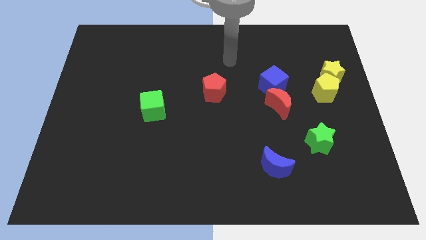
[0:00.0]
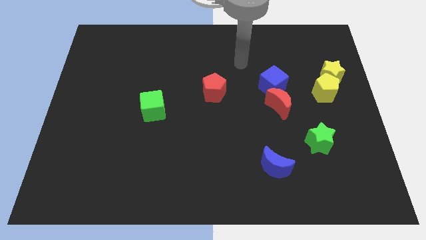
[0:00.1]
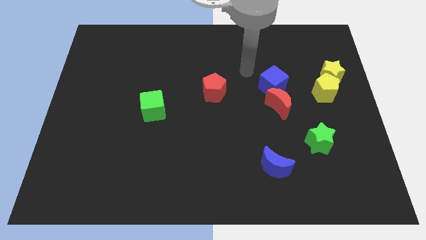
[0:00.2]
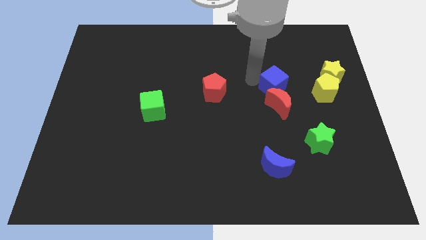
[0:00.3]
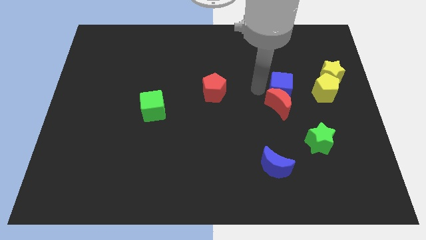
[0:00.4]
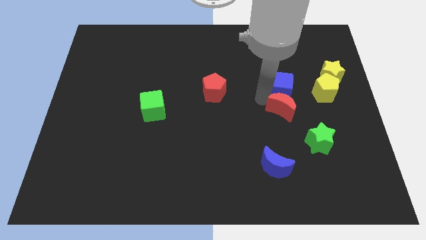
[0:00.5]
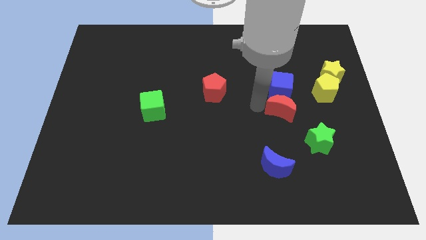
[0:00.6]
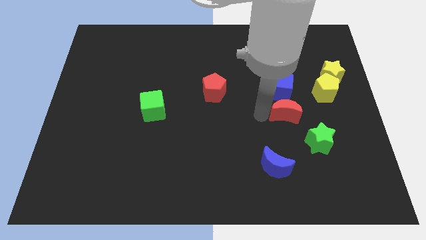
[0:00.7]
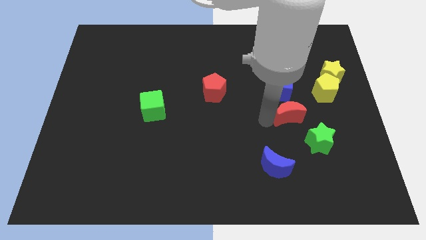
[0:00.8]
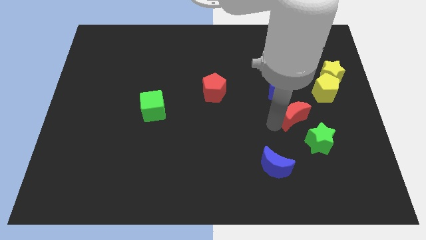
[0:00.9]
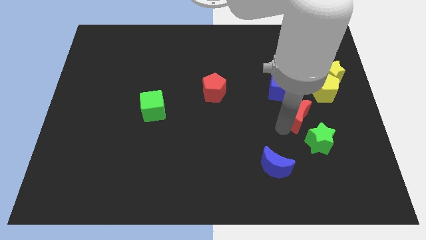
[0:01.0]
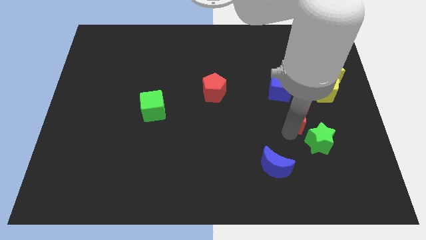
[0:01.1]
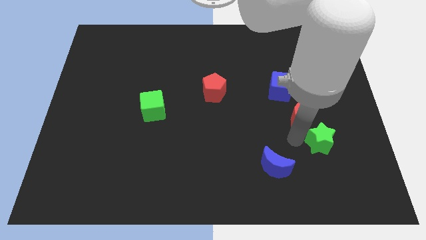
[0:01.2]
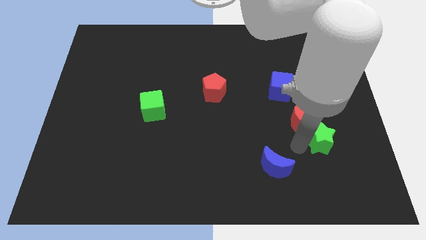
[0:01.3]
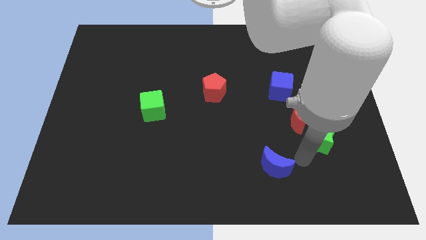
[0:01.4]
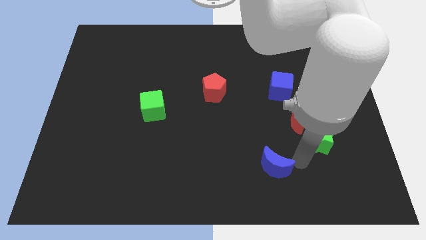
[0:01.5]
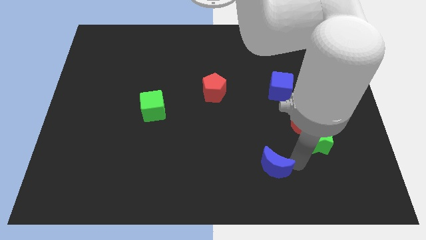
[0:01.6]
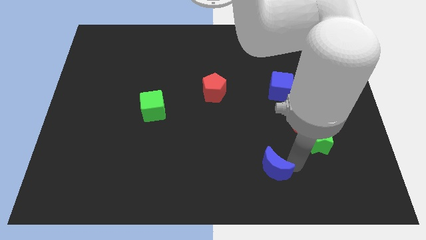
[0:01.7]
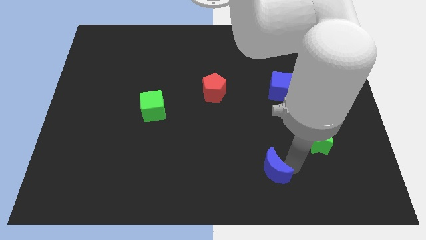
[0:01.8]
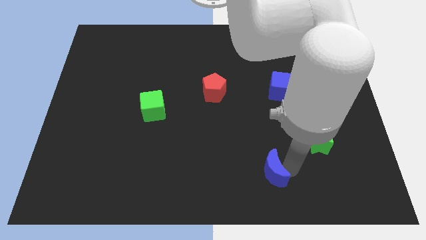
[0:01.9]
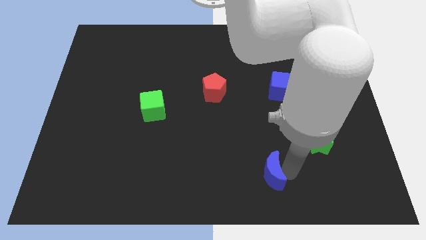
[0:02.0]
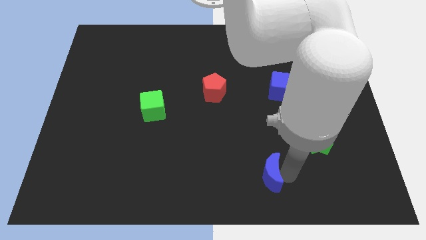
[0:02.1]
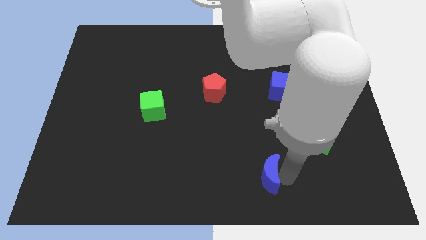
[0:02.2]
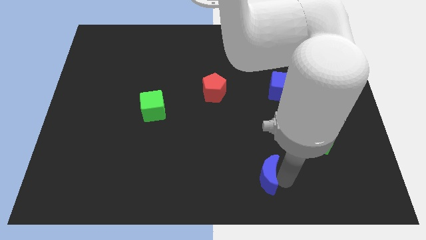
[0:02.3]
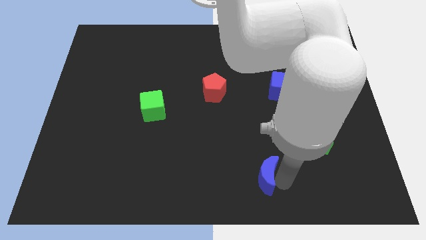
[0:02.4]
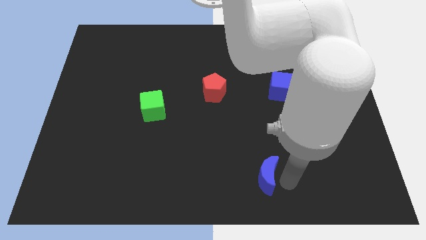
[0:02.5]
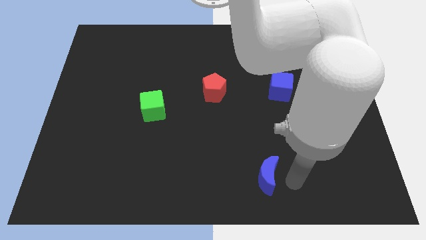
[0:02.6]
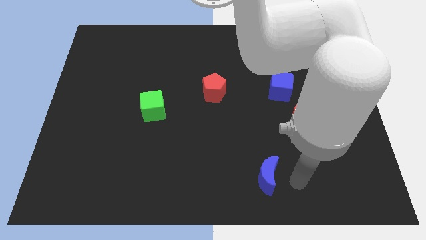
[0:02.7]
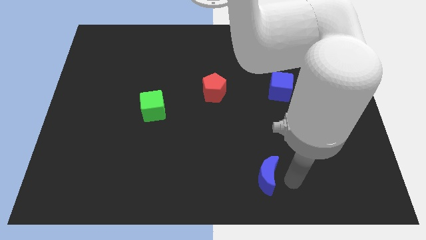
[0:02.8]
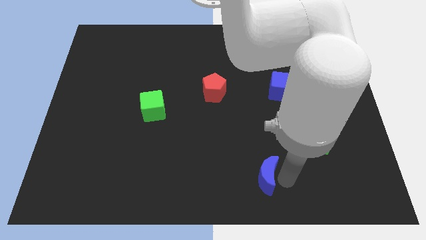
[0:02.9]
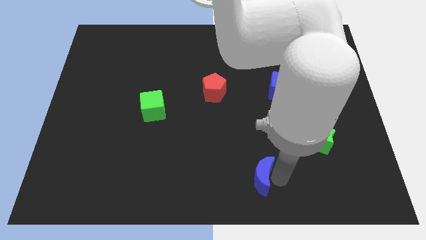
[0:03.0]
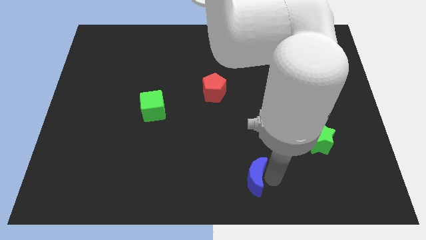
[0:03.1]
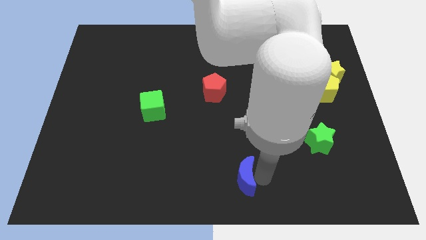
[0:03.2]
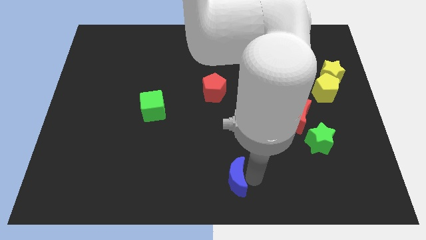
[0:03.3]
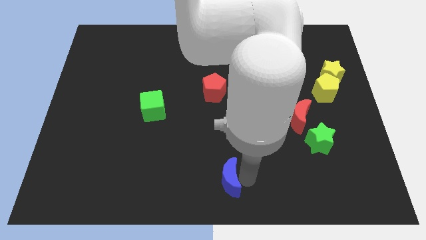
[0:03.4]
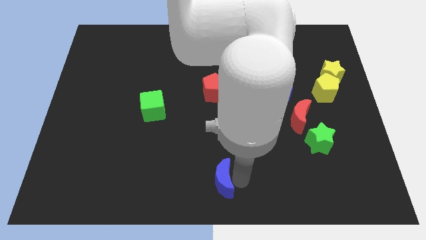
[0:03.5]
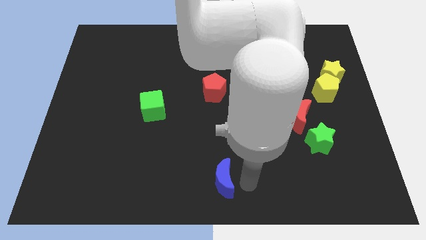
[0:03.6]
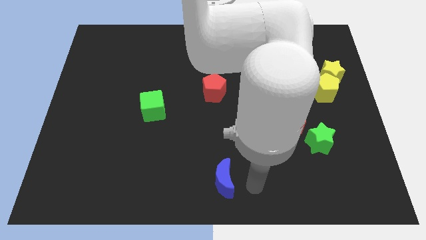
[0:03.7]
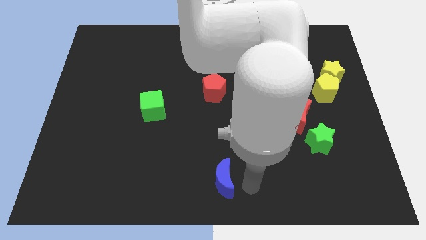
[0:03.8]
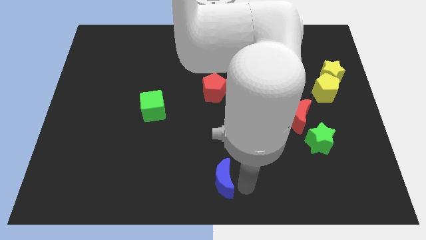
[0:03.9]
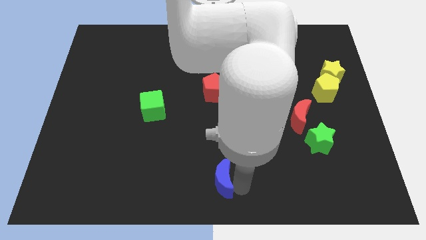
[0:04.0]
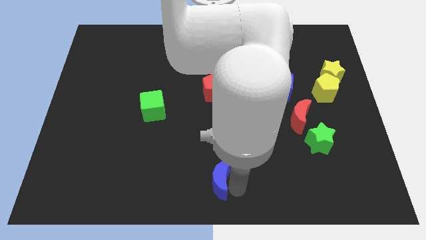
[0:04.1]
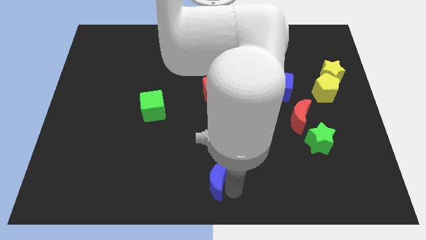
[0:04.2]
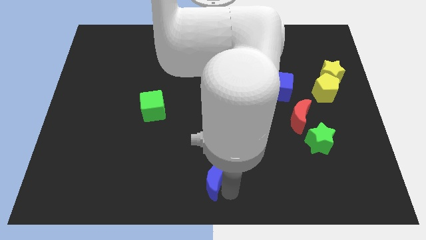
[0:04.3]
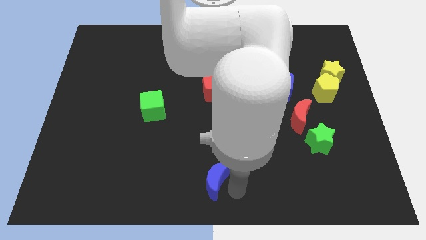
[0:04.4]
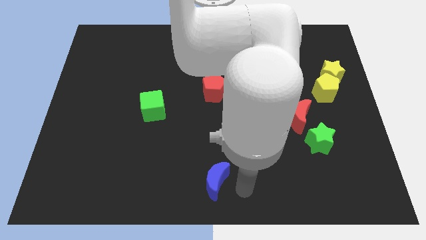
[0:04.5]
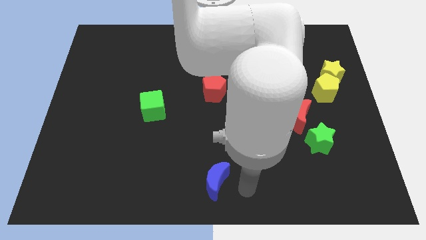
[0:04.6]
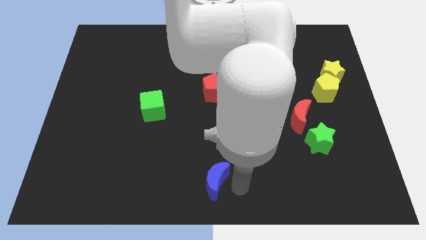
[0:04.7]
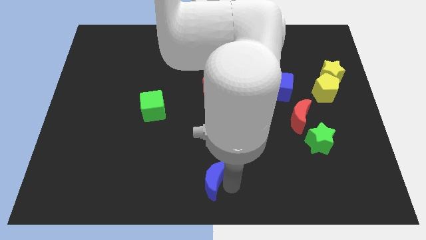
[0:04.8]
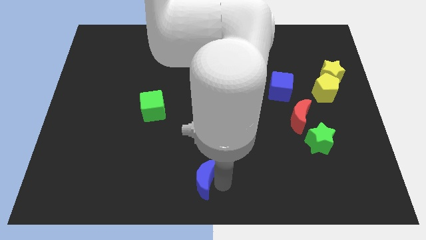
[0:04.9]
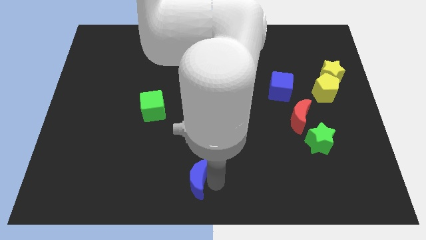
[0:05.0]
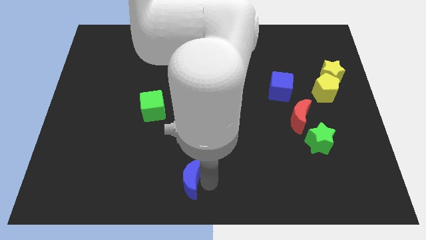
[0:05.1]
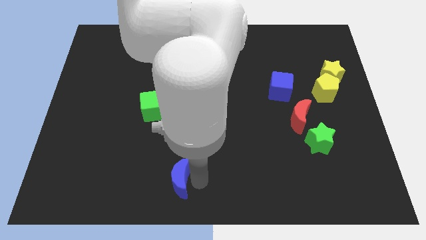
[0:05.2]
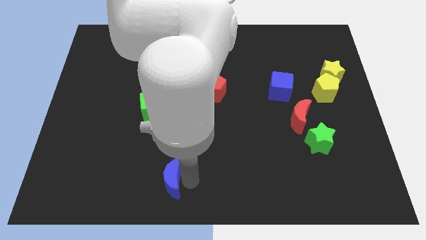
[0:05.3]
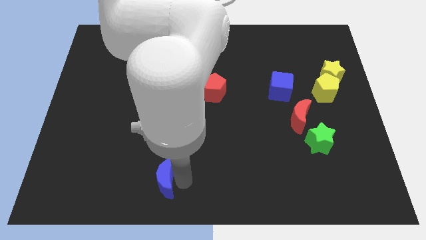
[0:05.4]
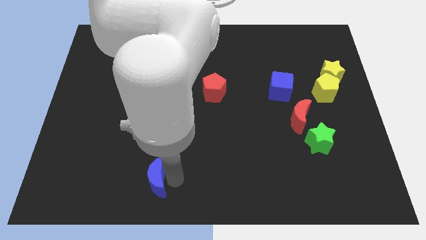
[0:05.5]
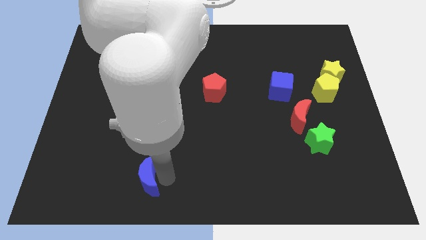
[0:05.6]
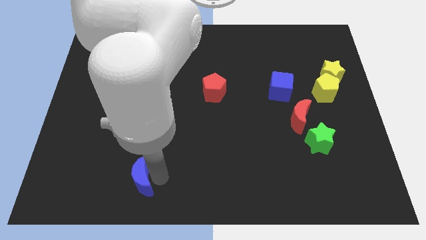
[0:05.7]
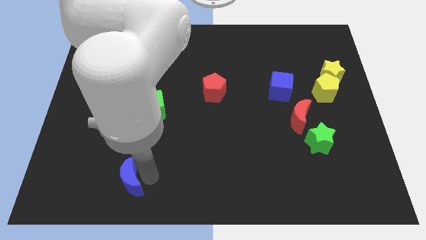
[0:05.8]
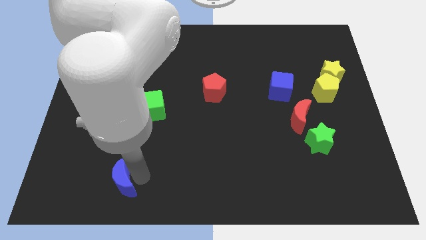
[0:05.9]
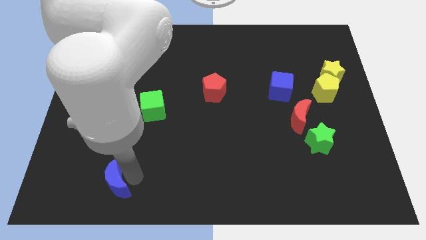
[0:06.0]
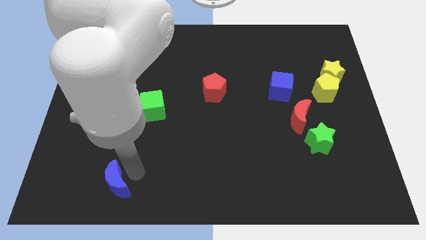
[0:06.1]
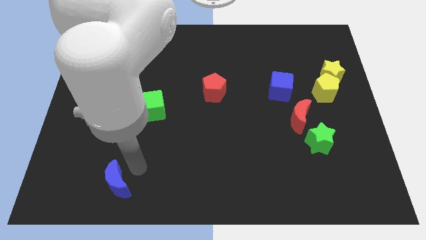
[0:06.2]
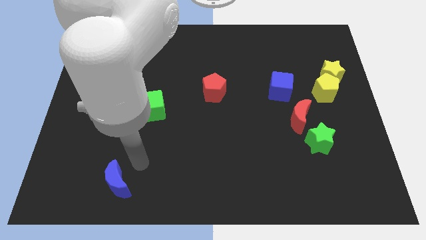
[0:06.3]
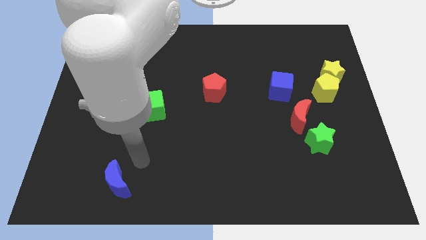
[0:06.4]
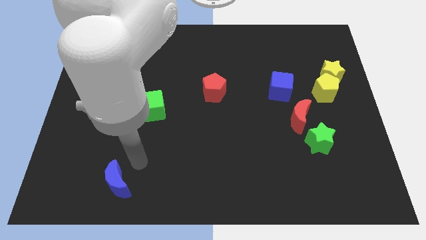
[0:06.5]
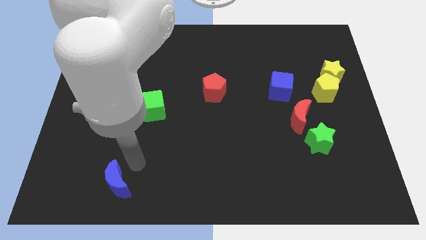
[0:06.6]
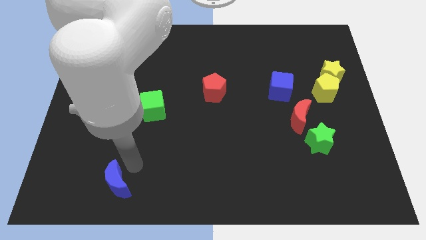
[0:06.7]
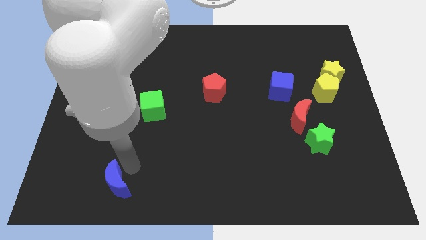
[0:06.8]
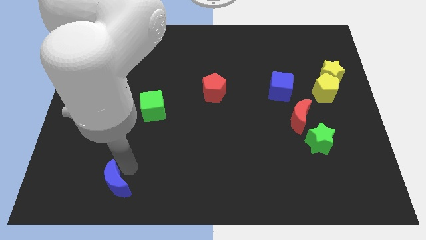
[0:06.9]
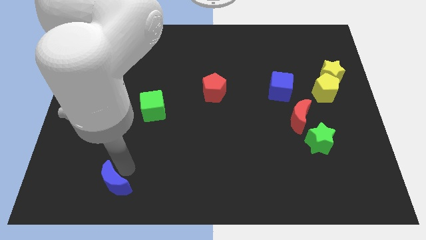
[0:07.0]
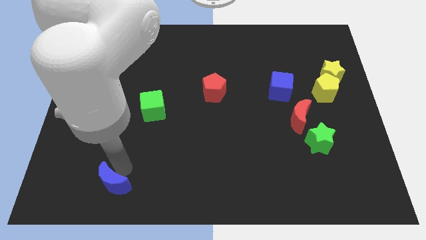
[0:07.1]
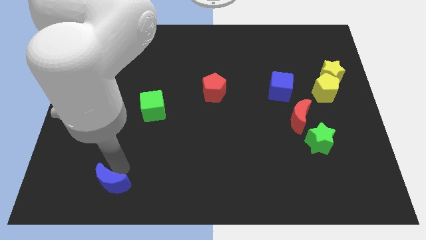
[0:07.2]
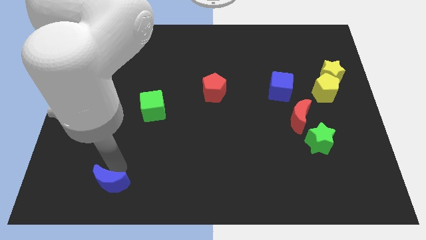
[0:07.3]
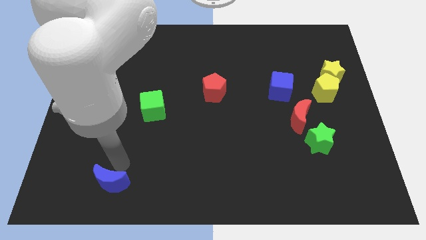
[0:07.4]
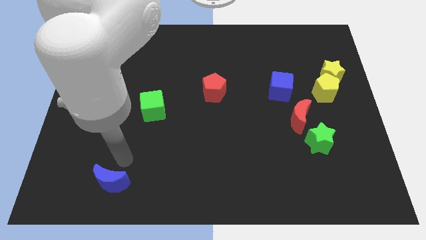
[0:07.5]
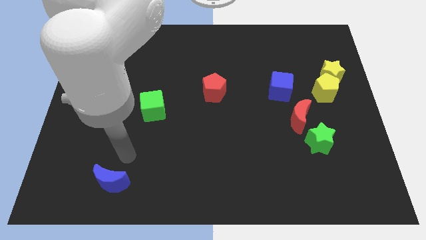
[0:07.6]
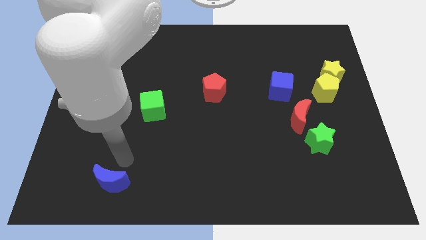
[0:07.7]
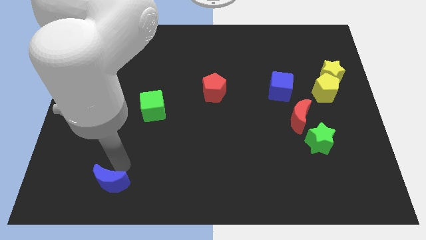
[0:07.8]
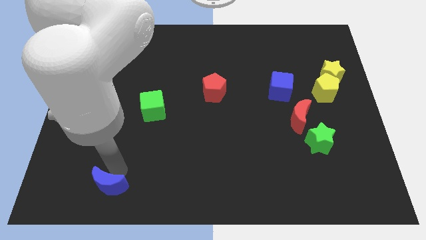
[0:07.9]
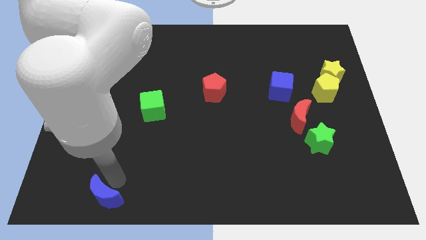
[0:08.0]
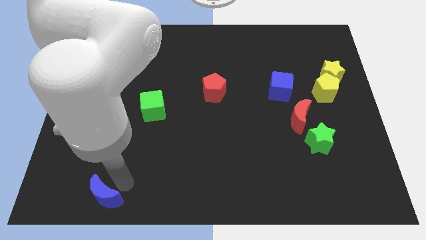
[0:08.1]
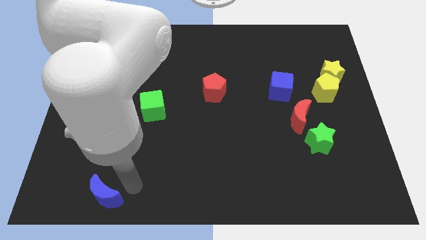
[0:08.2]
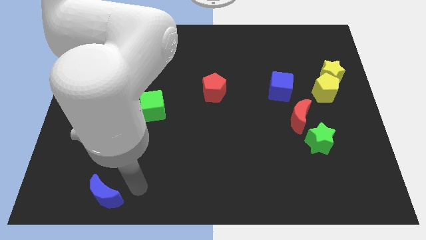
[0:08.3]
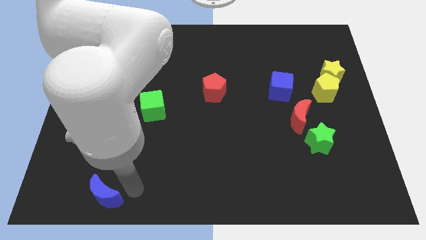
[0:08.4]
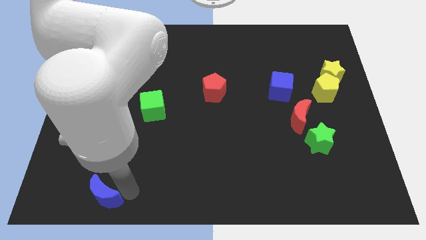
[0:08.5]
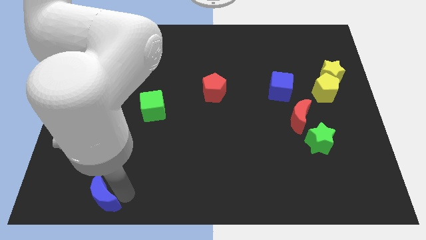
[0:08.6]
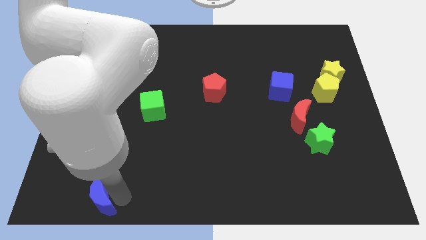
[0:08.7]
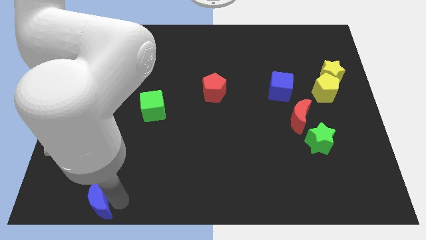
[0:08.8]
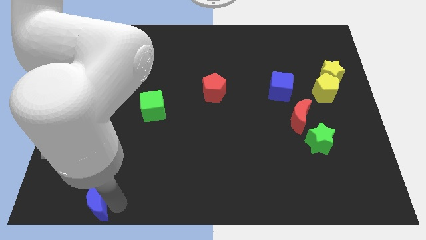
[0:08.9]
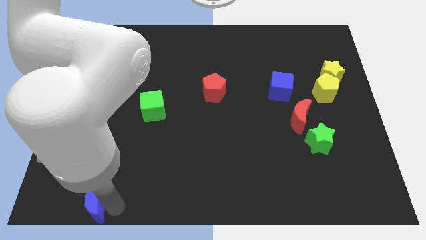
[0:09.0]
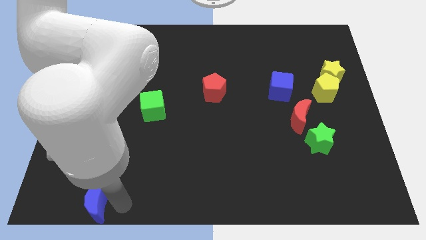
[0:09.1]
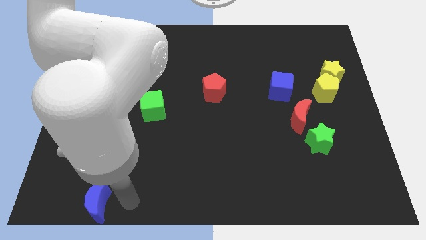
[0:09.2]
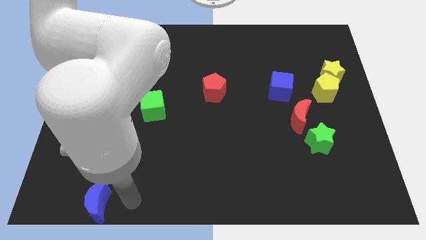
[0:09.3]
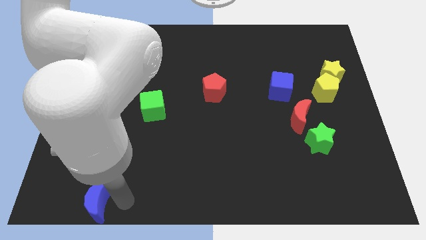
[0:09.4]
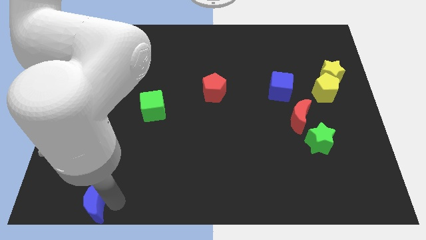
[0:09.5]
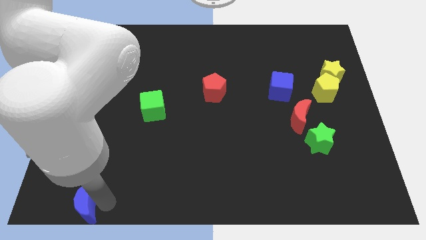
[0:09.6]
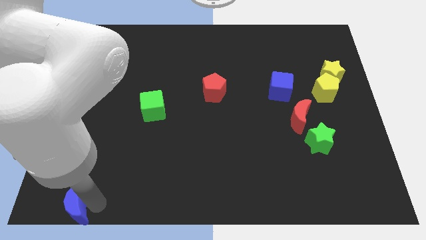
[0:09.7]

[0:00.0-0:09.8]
push the blue moon to the bottom left corner
